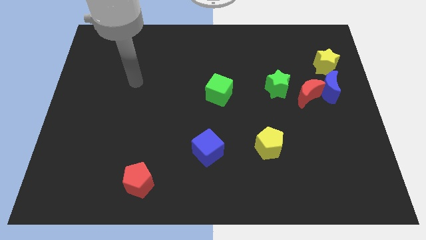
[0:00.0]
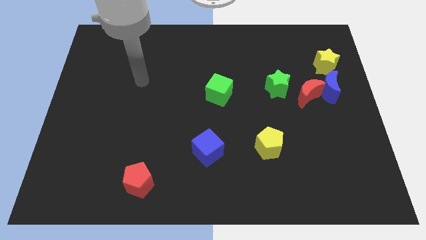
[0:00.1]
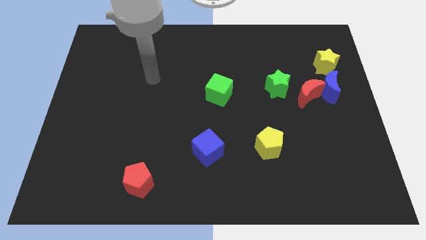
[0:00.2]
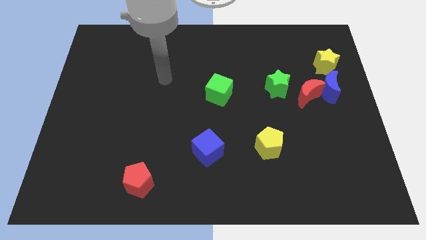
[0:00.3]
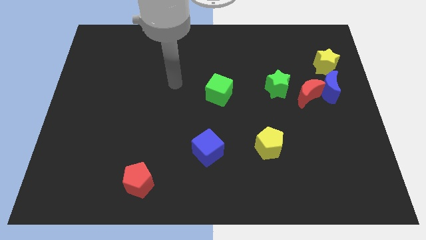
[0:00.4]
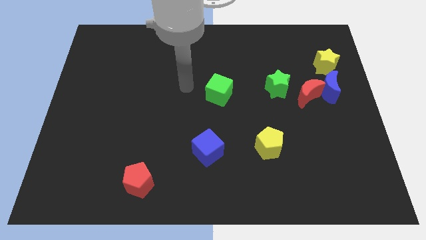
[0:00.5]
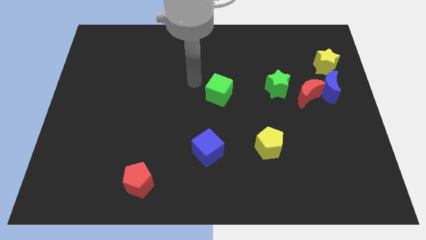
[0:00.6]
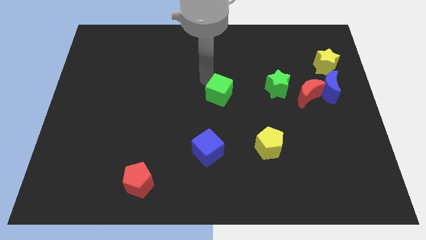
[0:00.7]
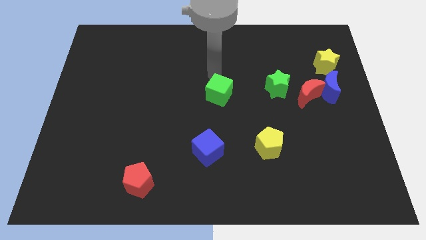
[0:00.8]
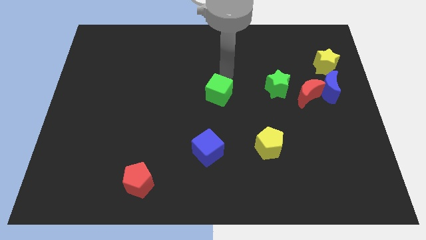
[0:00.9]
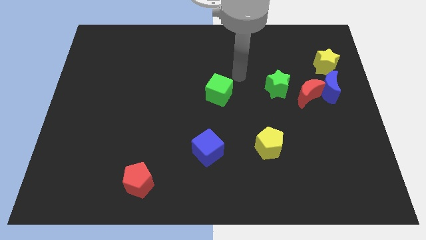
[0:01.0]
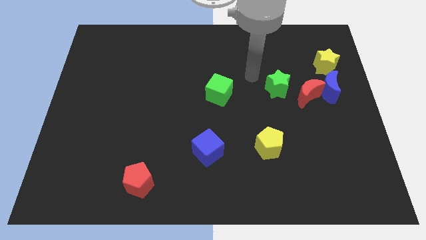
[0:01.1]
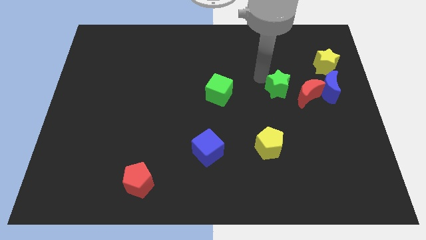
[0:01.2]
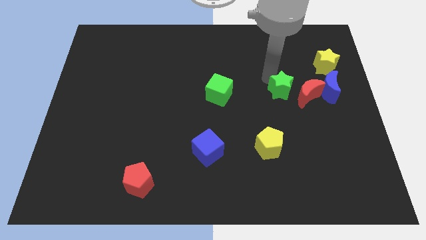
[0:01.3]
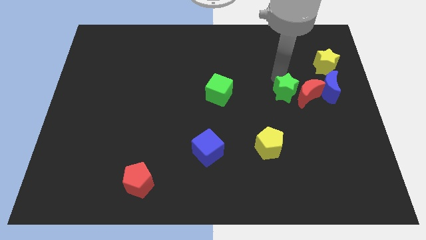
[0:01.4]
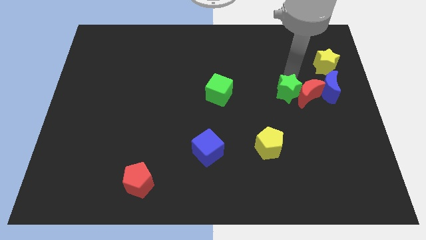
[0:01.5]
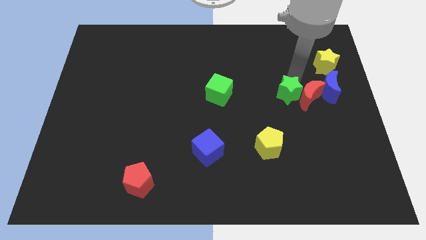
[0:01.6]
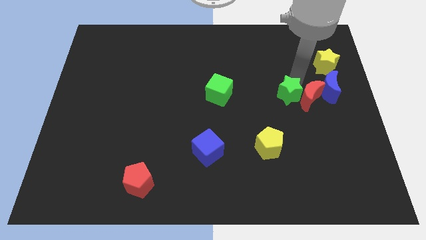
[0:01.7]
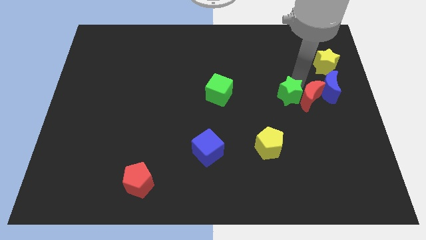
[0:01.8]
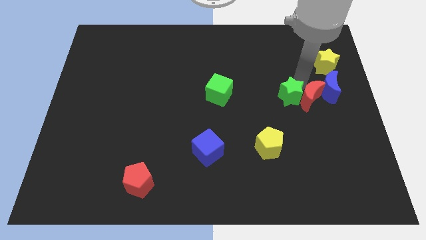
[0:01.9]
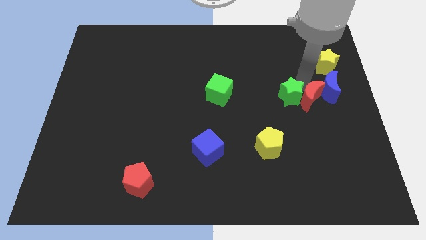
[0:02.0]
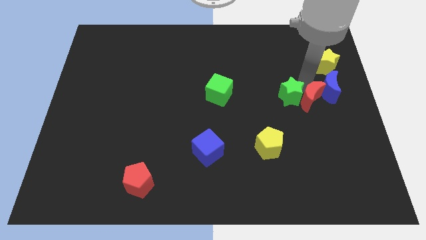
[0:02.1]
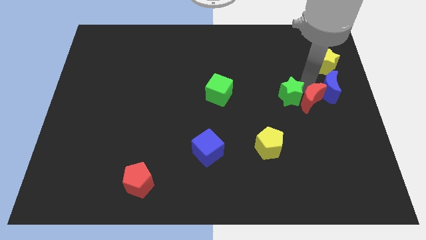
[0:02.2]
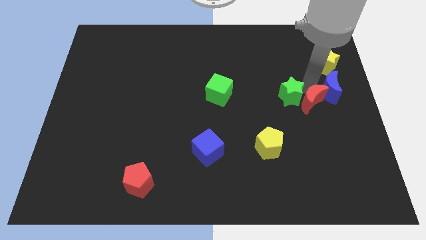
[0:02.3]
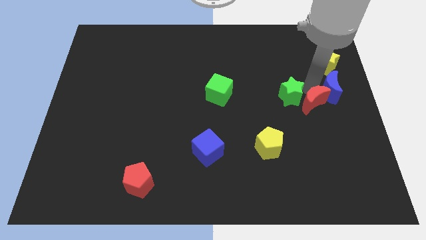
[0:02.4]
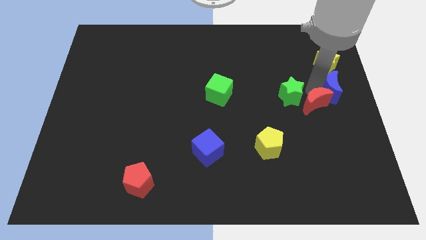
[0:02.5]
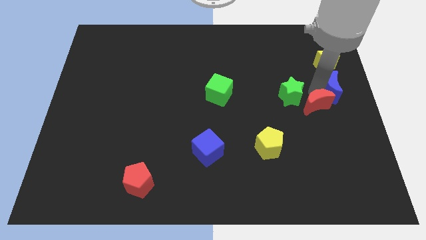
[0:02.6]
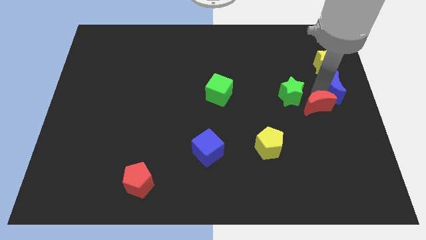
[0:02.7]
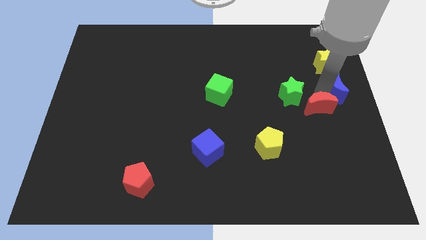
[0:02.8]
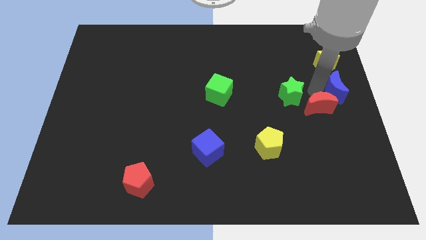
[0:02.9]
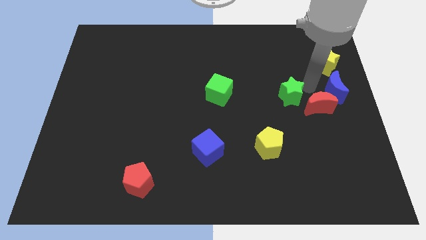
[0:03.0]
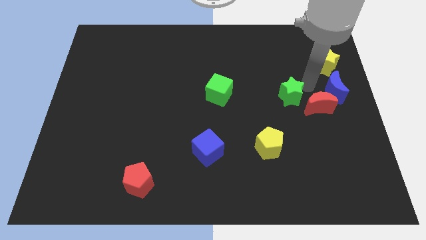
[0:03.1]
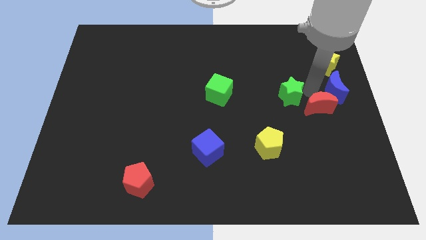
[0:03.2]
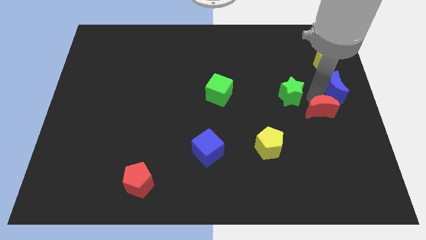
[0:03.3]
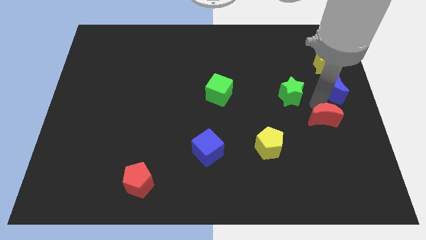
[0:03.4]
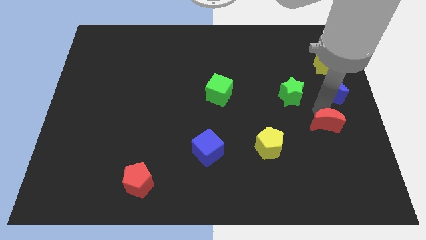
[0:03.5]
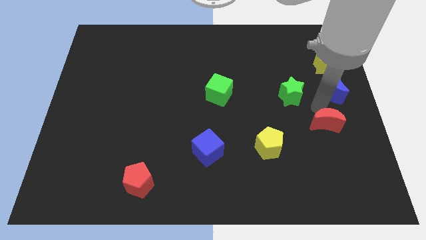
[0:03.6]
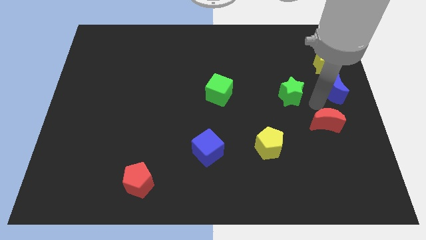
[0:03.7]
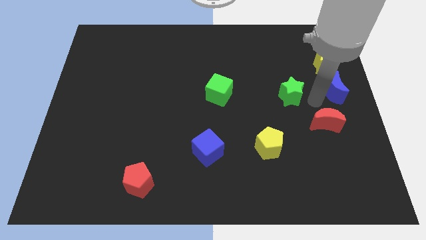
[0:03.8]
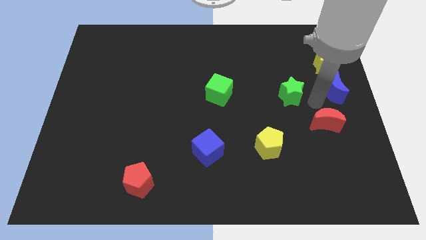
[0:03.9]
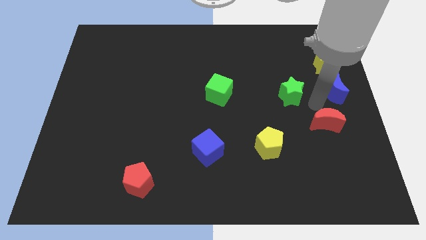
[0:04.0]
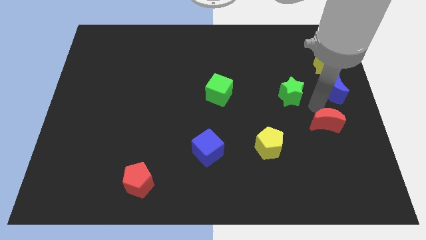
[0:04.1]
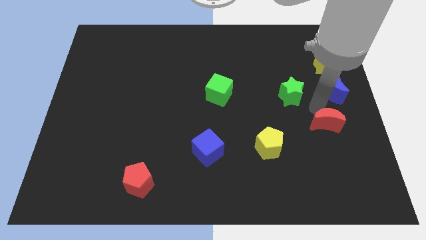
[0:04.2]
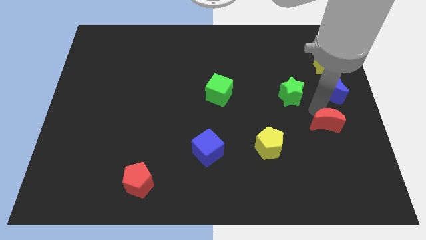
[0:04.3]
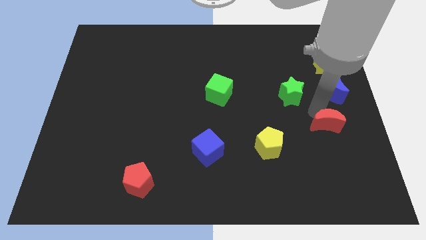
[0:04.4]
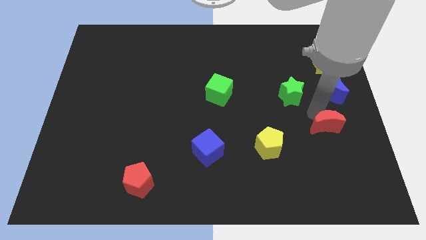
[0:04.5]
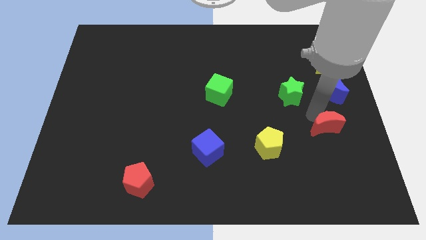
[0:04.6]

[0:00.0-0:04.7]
separate the red moon from the blue moon and green star

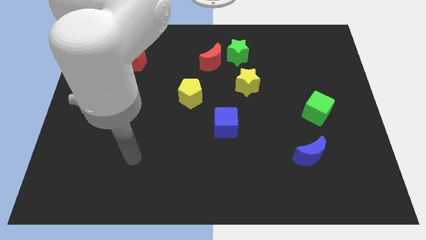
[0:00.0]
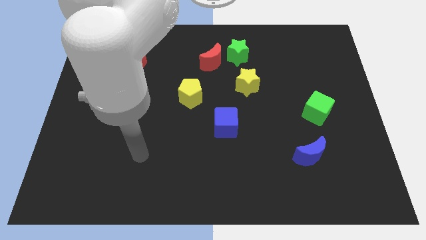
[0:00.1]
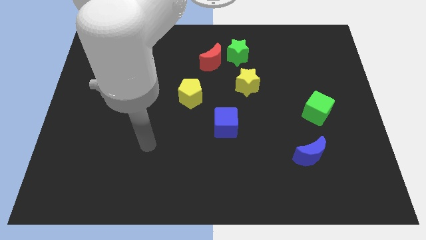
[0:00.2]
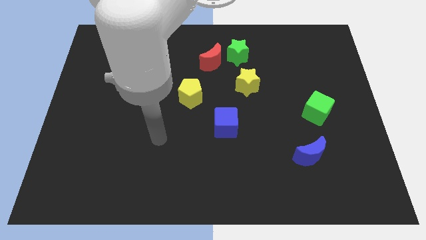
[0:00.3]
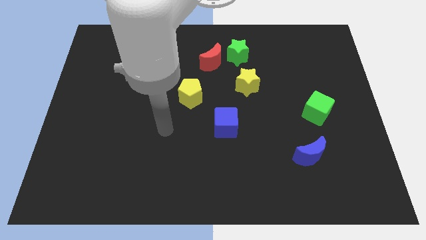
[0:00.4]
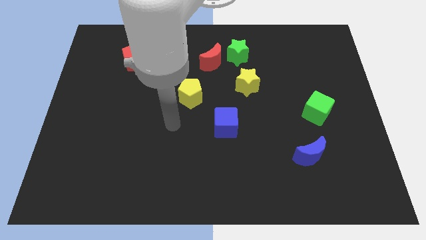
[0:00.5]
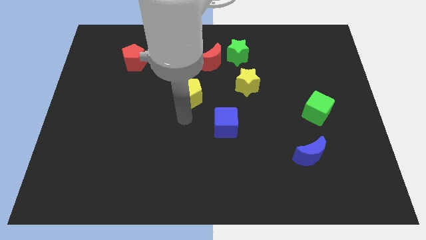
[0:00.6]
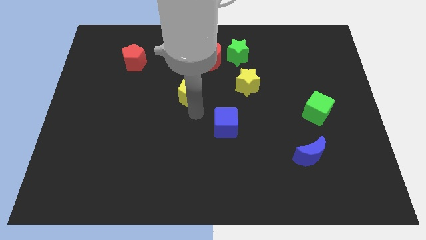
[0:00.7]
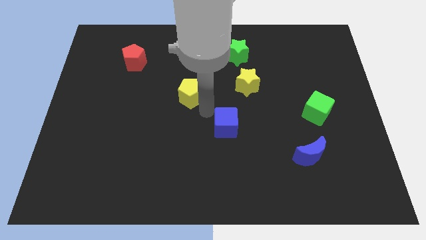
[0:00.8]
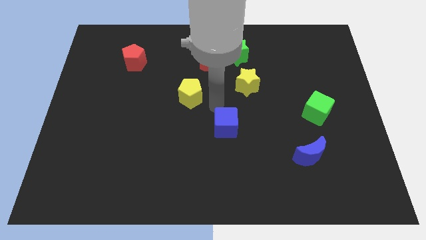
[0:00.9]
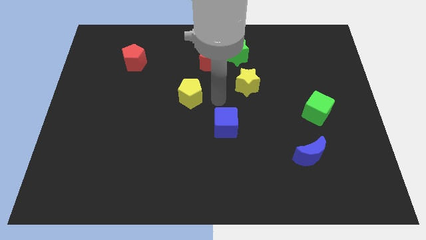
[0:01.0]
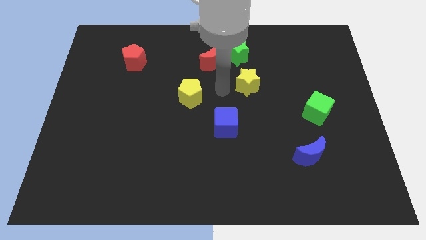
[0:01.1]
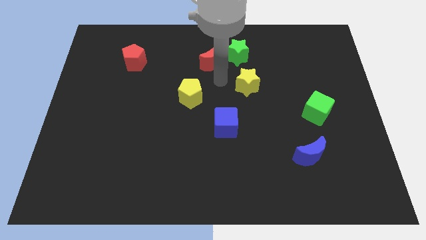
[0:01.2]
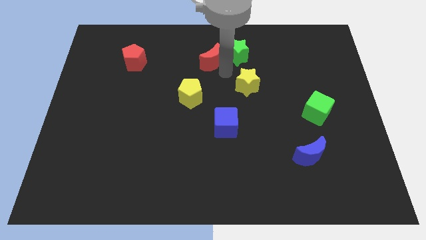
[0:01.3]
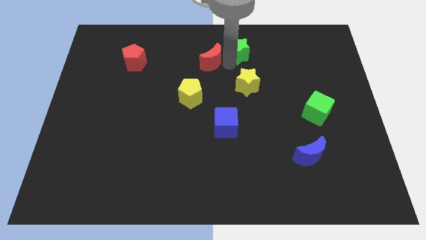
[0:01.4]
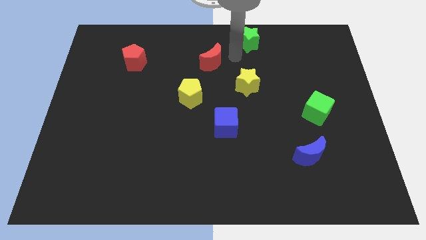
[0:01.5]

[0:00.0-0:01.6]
separate the red moon from the green star

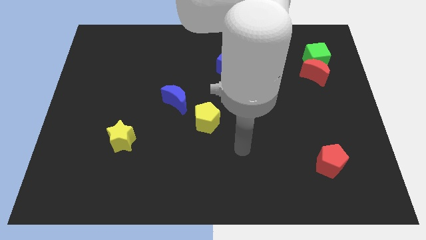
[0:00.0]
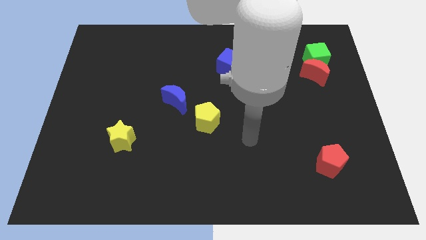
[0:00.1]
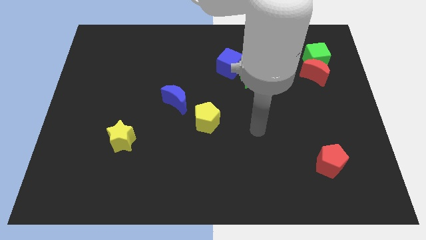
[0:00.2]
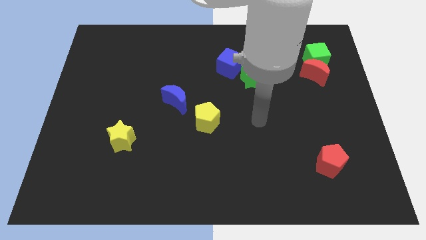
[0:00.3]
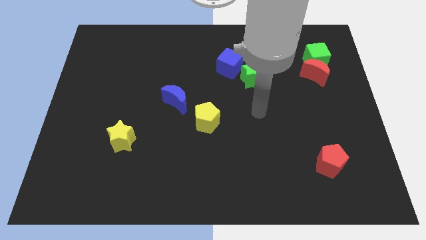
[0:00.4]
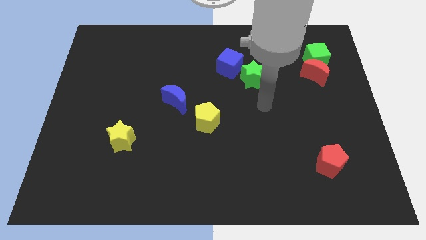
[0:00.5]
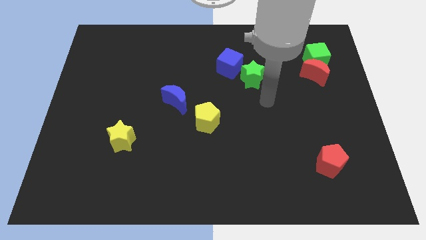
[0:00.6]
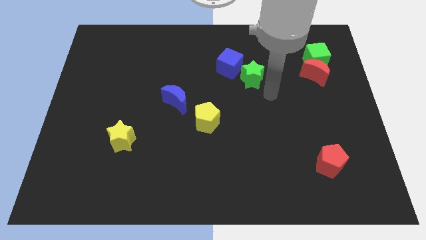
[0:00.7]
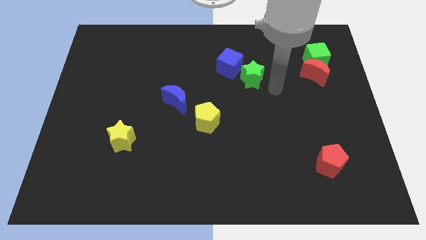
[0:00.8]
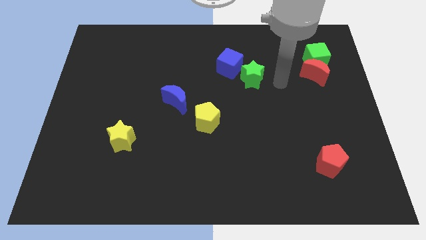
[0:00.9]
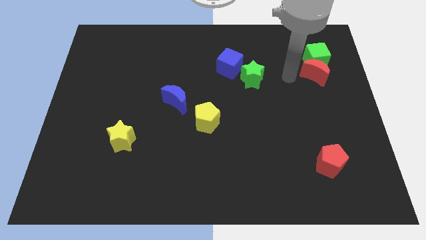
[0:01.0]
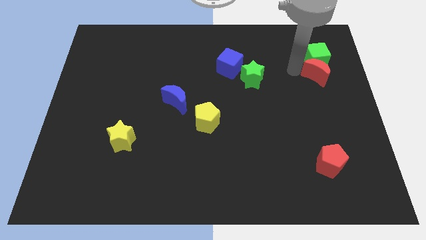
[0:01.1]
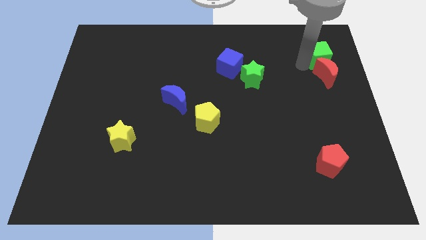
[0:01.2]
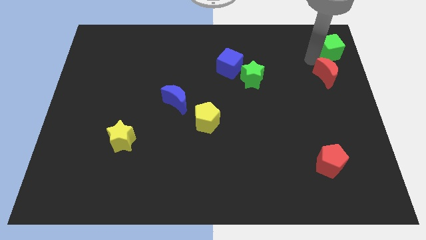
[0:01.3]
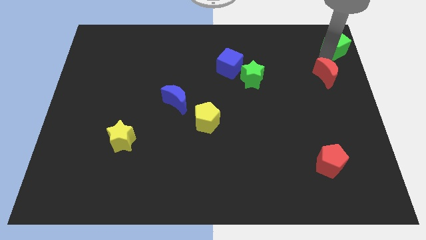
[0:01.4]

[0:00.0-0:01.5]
pull the red moon apart from the green cube

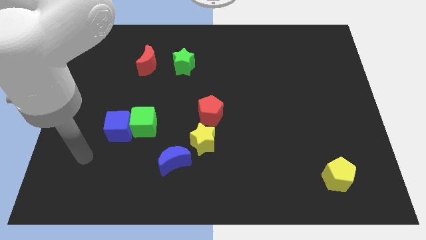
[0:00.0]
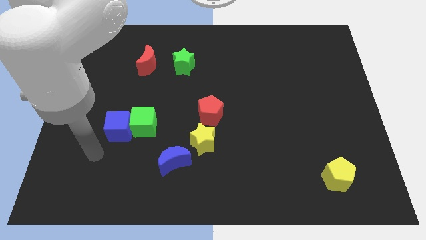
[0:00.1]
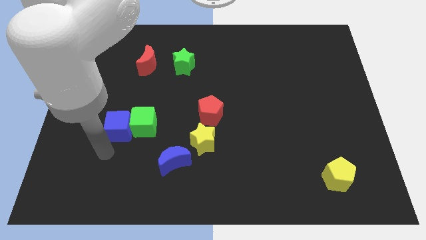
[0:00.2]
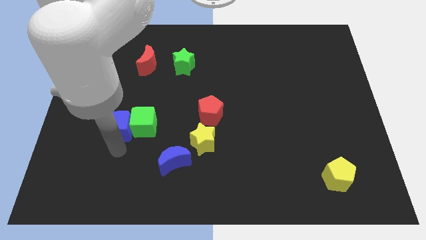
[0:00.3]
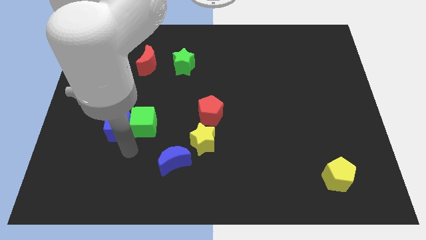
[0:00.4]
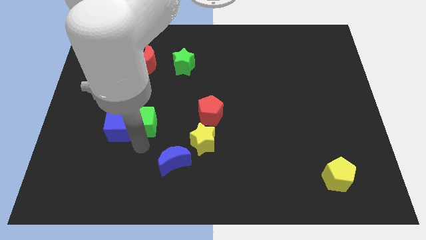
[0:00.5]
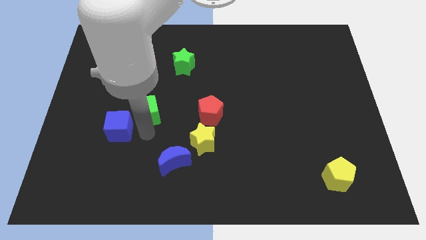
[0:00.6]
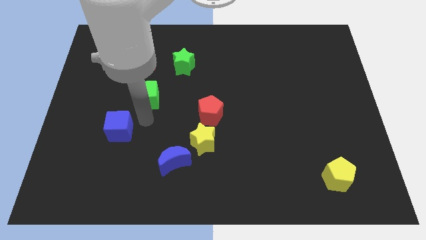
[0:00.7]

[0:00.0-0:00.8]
separate the blue cube from the green cube

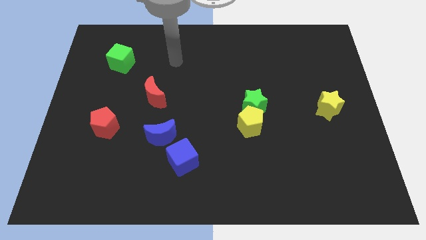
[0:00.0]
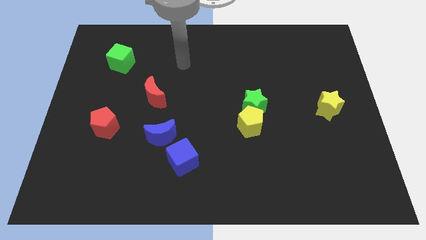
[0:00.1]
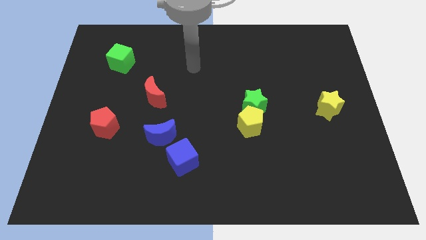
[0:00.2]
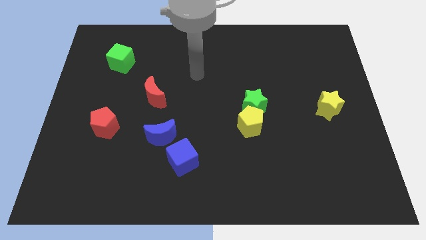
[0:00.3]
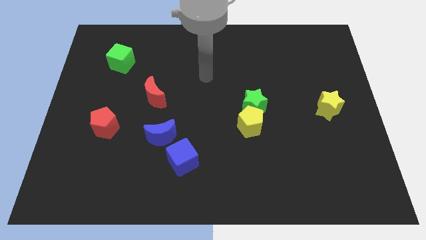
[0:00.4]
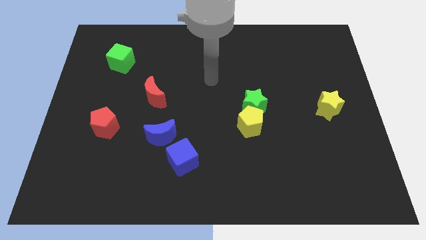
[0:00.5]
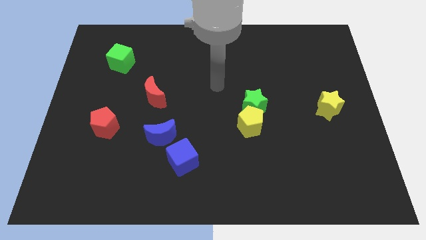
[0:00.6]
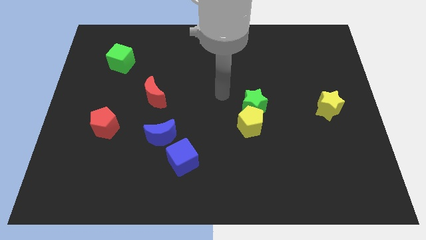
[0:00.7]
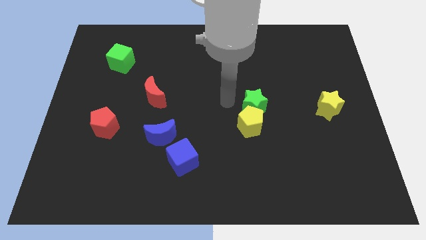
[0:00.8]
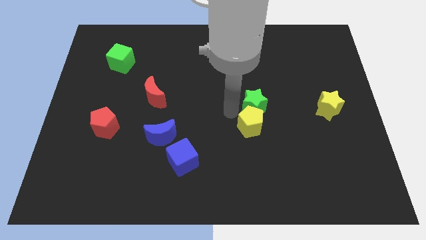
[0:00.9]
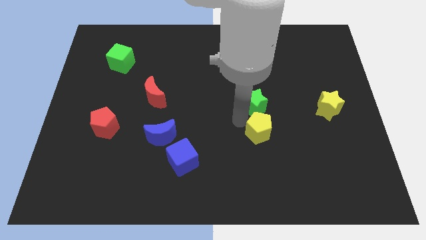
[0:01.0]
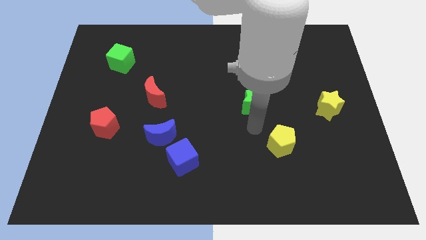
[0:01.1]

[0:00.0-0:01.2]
separate the green star from the yellow pentagon
